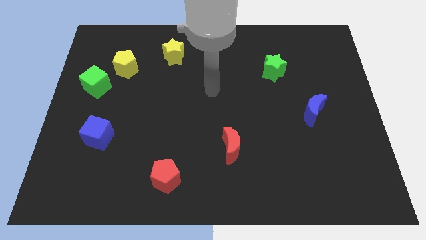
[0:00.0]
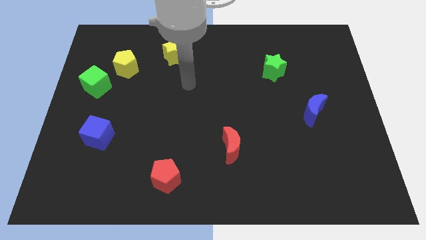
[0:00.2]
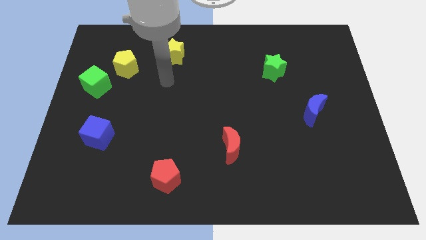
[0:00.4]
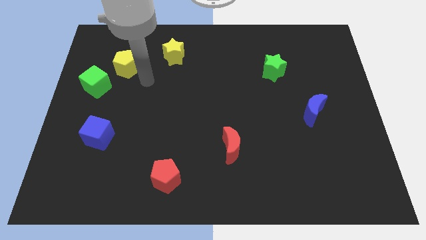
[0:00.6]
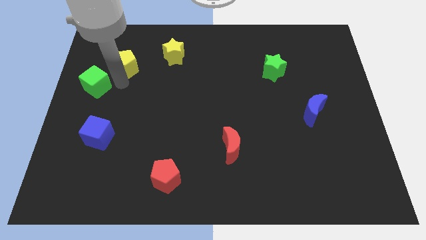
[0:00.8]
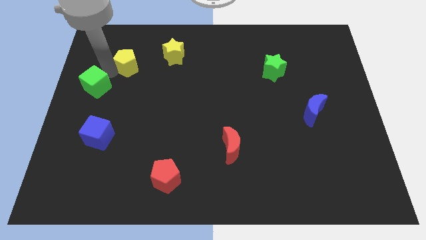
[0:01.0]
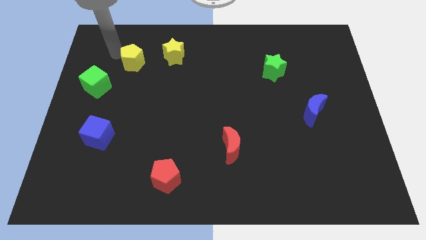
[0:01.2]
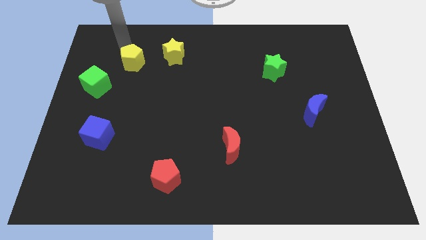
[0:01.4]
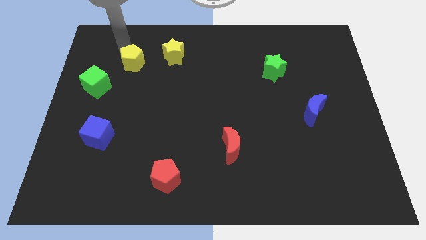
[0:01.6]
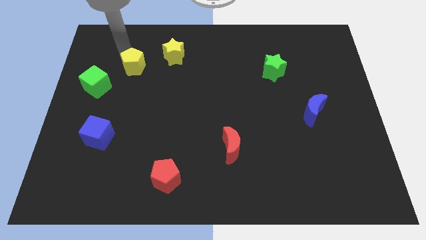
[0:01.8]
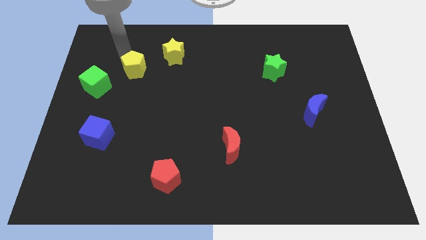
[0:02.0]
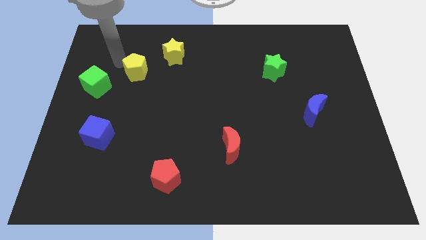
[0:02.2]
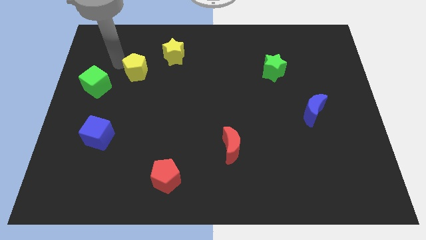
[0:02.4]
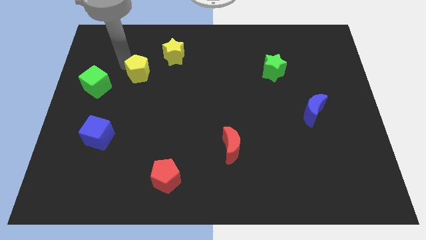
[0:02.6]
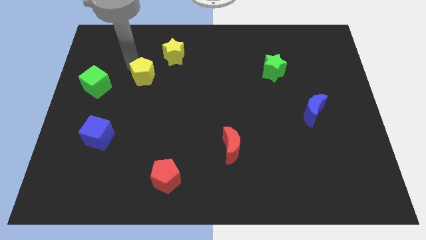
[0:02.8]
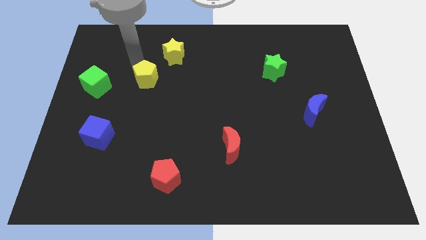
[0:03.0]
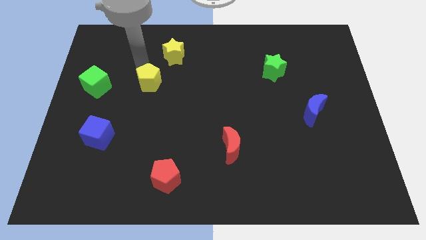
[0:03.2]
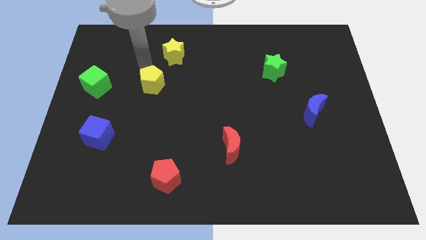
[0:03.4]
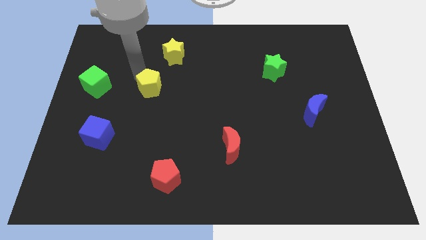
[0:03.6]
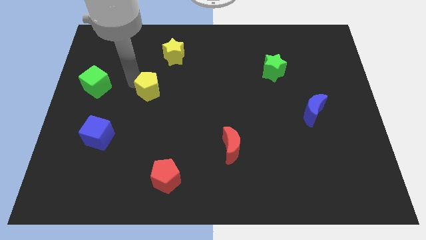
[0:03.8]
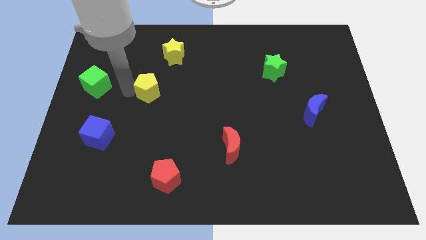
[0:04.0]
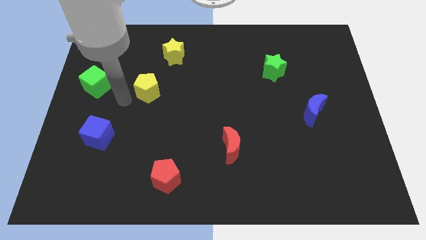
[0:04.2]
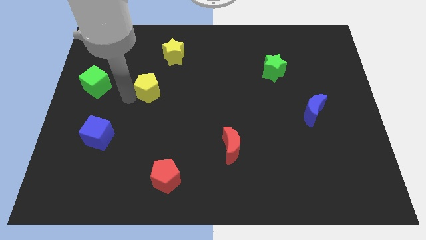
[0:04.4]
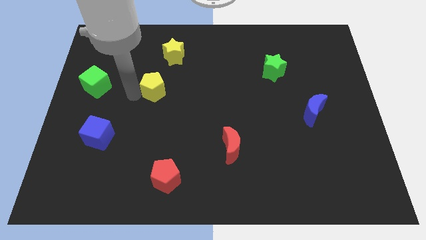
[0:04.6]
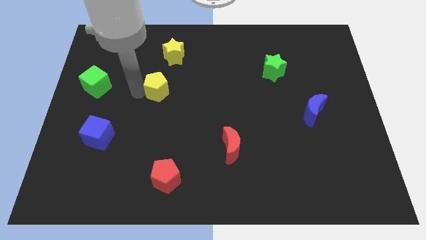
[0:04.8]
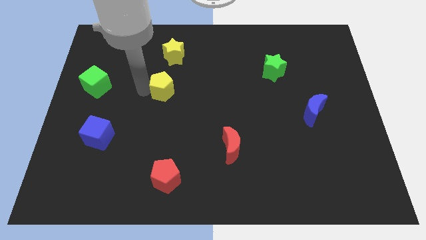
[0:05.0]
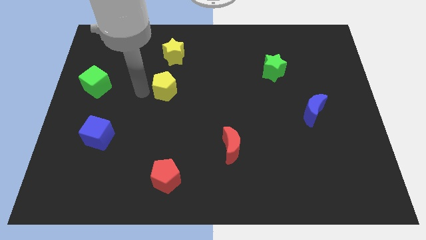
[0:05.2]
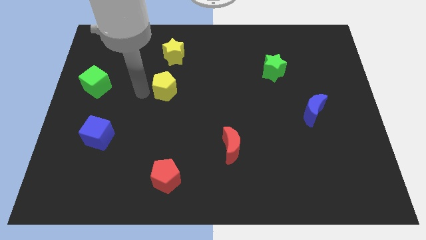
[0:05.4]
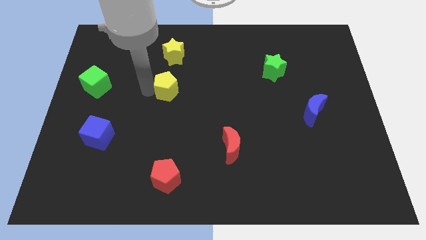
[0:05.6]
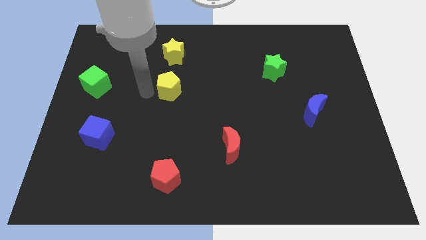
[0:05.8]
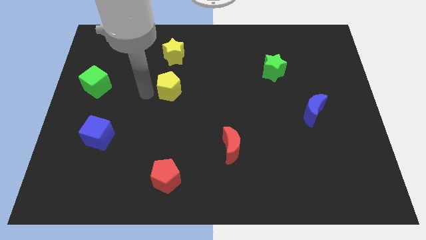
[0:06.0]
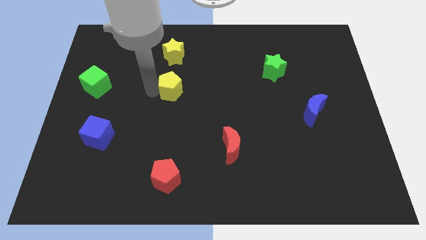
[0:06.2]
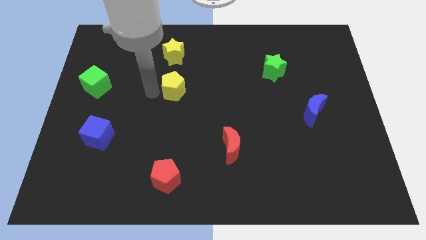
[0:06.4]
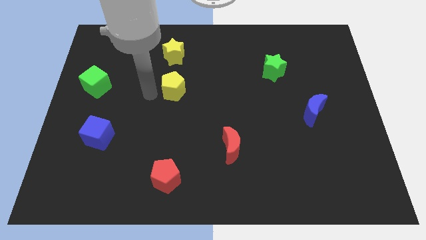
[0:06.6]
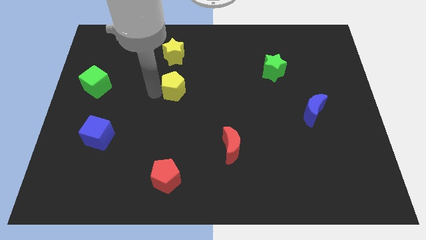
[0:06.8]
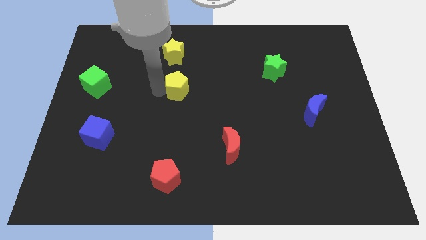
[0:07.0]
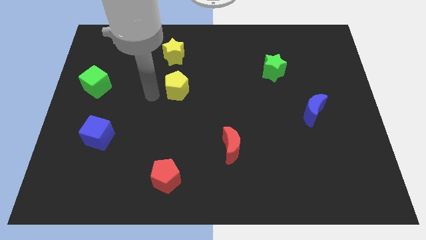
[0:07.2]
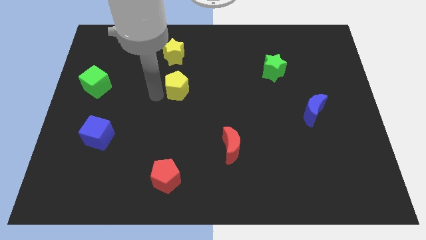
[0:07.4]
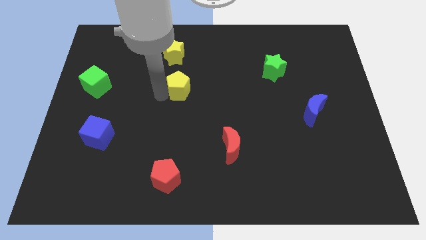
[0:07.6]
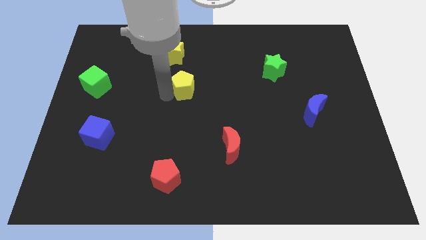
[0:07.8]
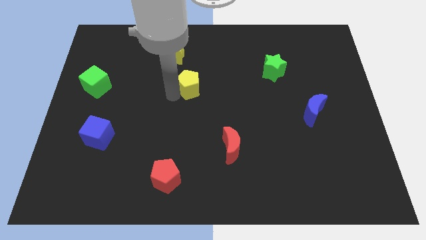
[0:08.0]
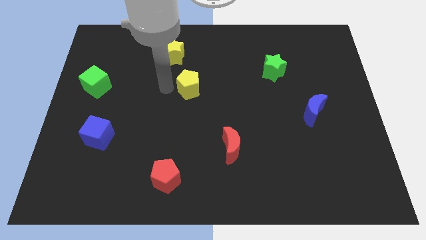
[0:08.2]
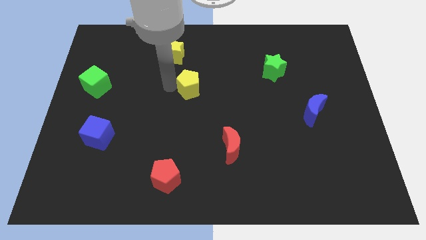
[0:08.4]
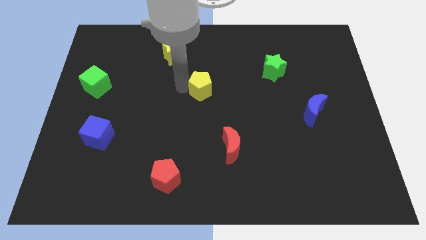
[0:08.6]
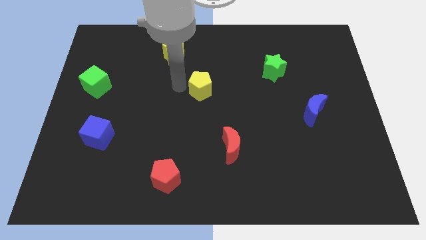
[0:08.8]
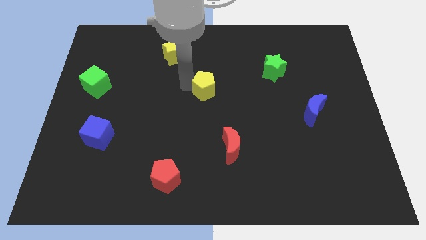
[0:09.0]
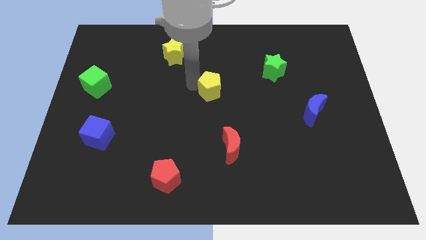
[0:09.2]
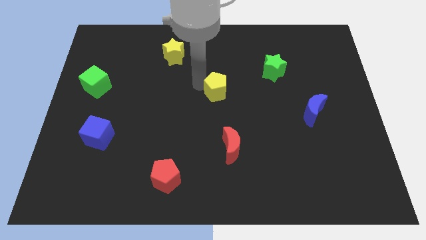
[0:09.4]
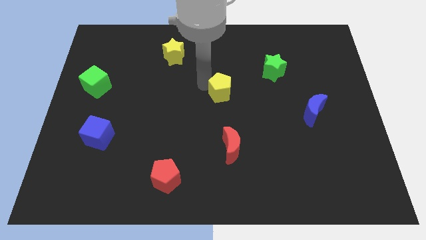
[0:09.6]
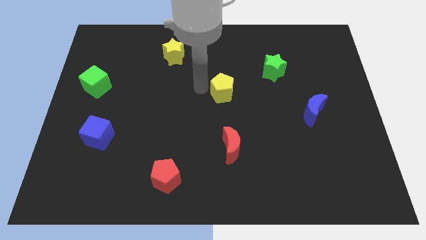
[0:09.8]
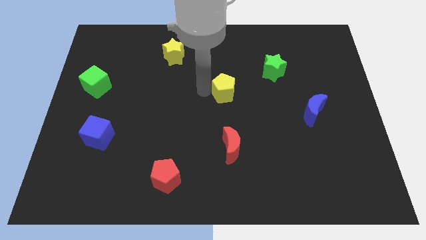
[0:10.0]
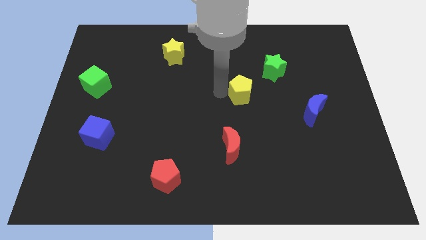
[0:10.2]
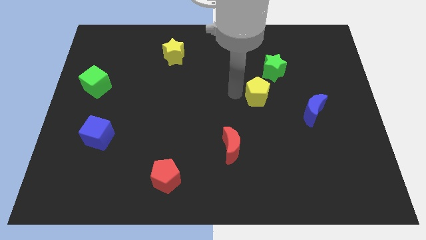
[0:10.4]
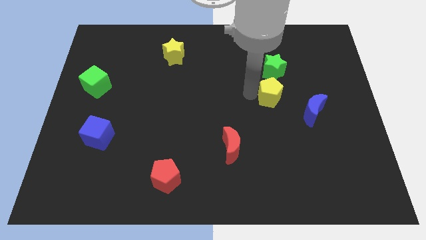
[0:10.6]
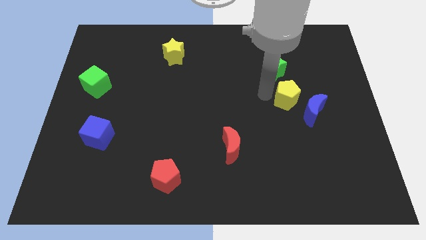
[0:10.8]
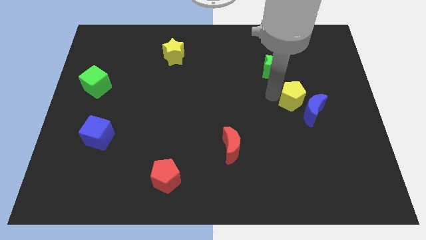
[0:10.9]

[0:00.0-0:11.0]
move the yellow pentagon close to the blue moon

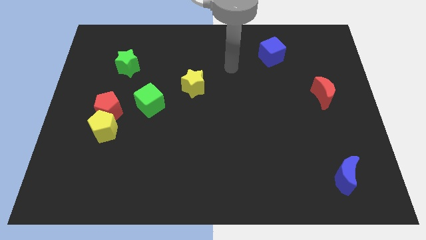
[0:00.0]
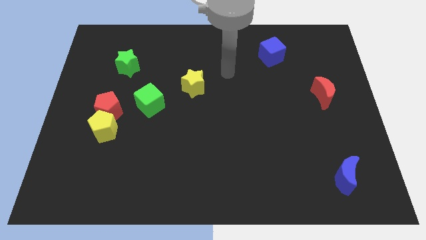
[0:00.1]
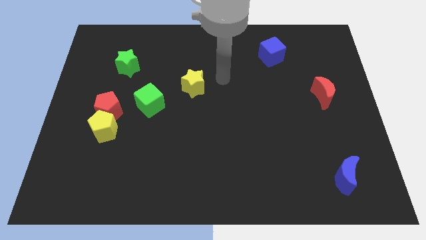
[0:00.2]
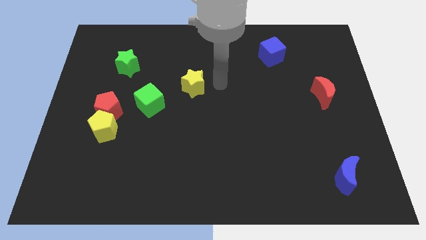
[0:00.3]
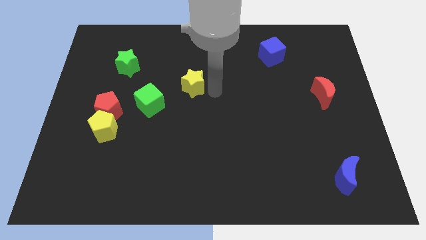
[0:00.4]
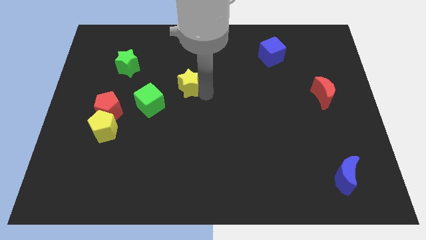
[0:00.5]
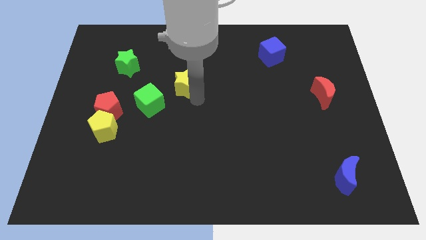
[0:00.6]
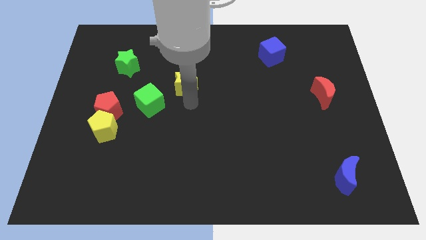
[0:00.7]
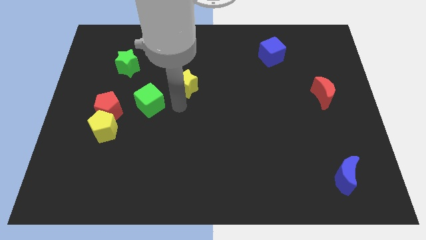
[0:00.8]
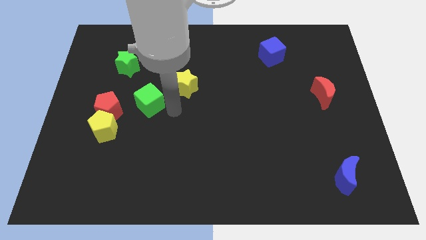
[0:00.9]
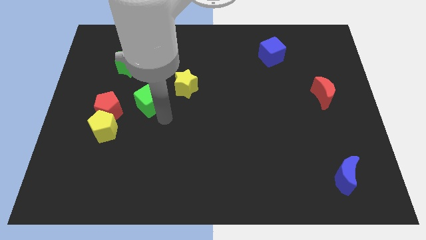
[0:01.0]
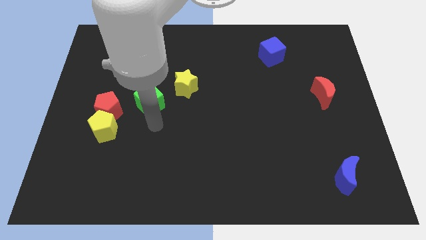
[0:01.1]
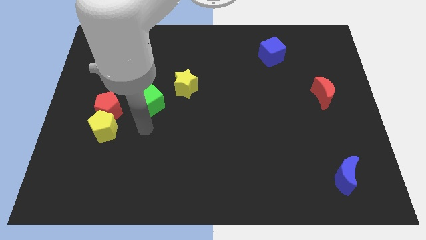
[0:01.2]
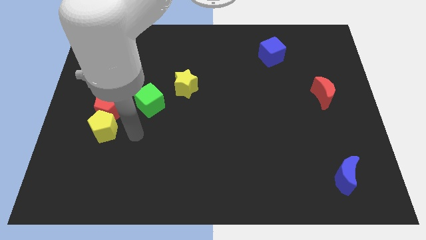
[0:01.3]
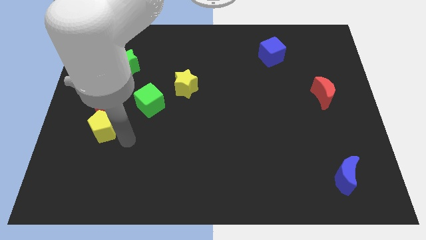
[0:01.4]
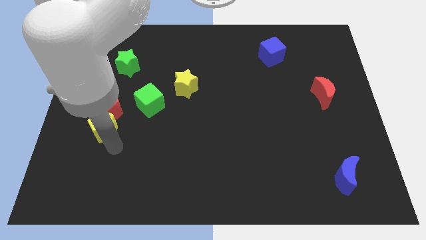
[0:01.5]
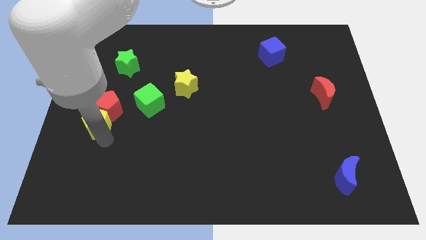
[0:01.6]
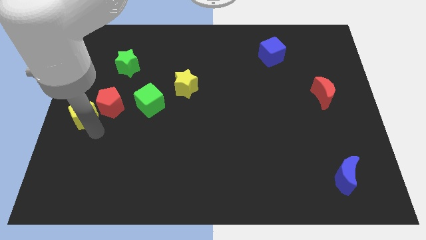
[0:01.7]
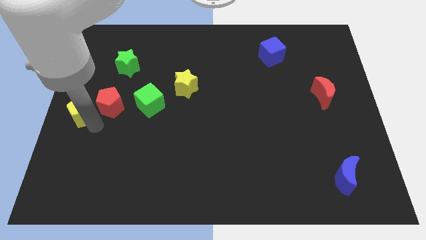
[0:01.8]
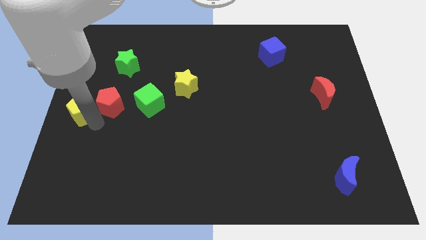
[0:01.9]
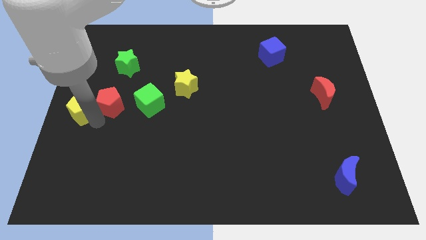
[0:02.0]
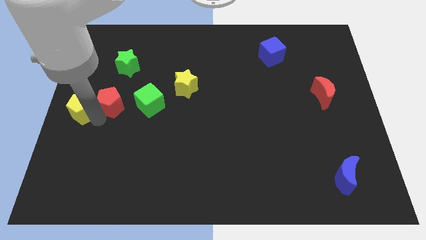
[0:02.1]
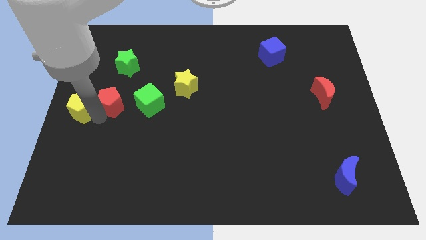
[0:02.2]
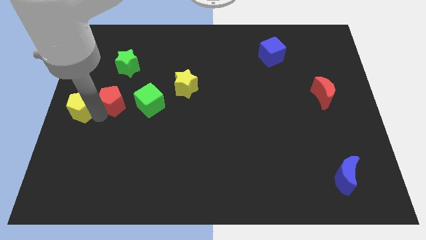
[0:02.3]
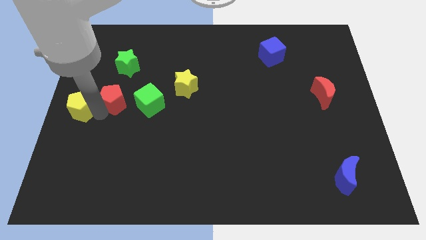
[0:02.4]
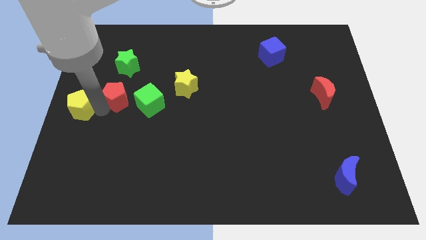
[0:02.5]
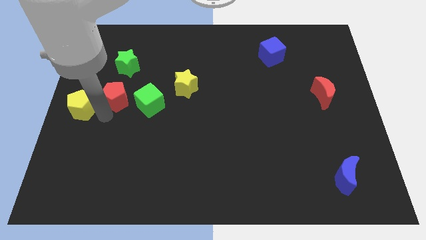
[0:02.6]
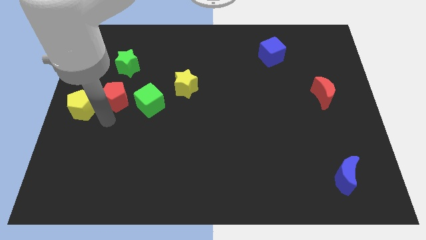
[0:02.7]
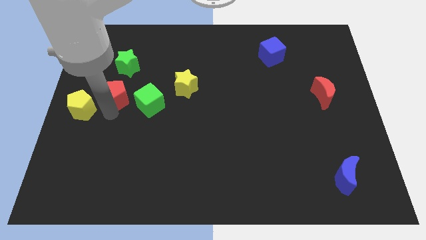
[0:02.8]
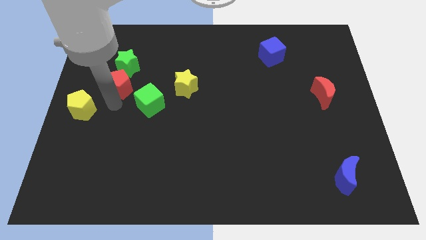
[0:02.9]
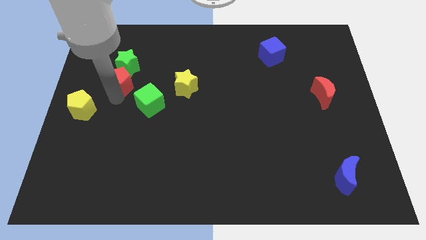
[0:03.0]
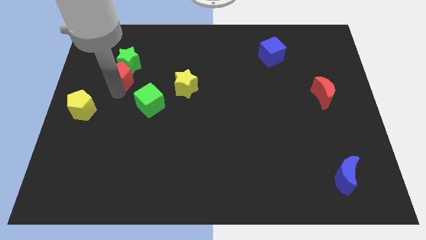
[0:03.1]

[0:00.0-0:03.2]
put the red pentagon next to the green star
